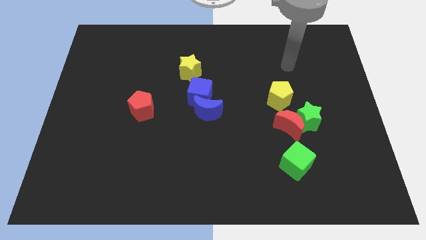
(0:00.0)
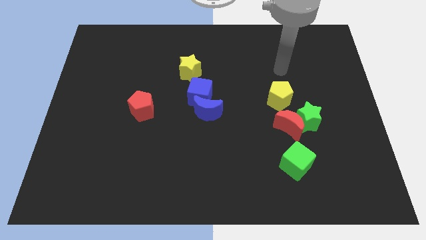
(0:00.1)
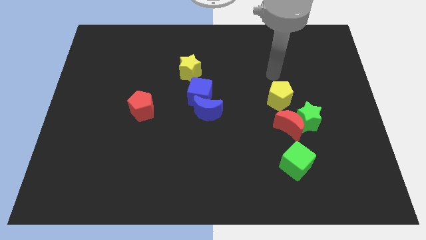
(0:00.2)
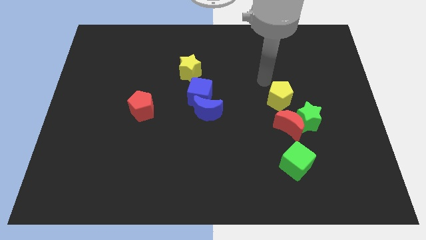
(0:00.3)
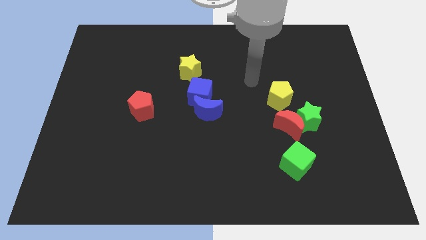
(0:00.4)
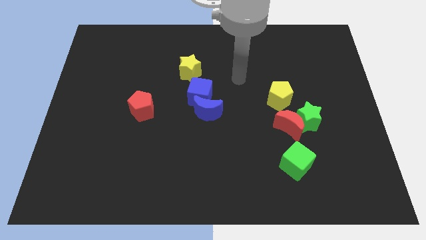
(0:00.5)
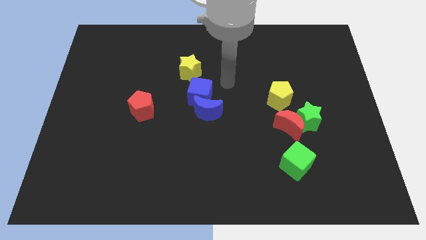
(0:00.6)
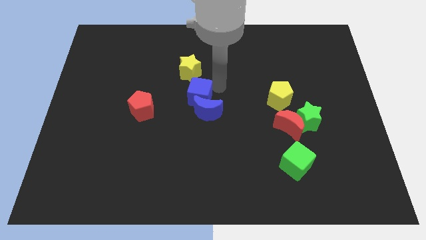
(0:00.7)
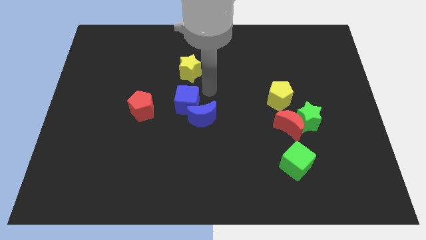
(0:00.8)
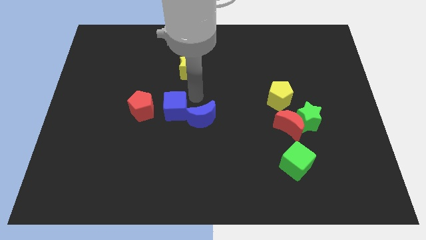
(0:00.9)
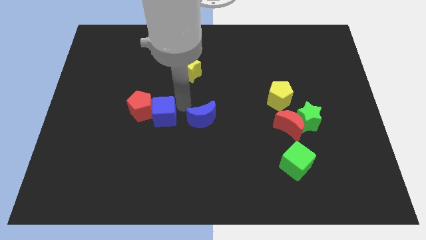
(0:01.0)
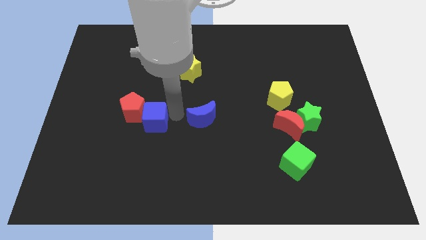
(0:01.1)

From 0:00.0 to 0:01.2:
move the blue moon away from the blue cube

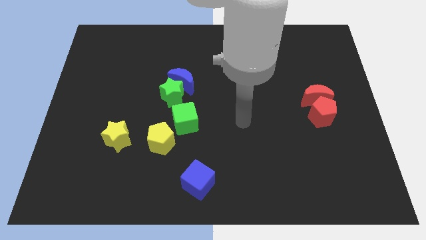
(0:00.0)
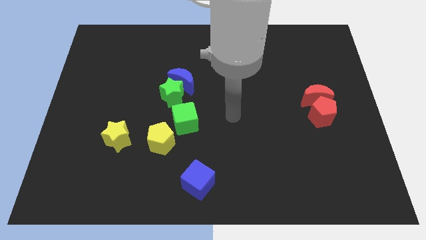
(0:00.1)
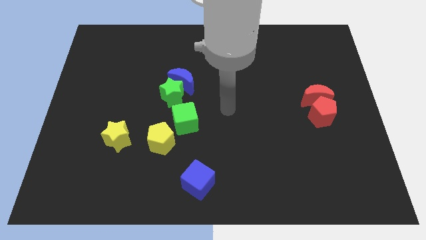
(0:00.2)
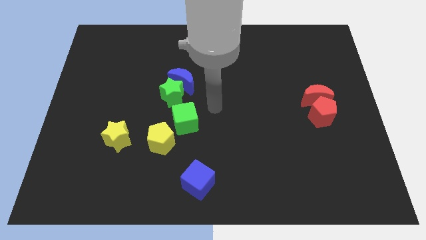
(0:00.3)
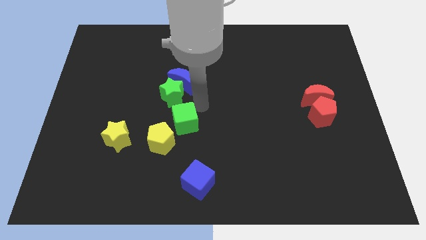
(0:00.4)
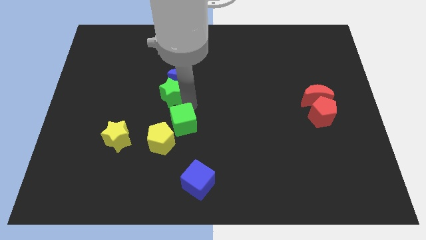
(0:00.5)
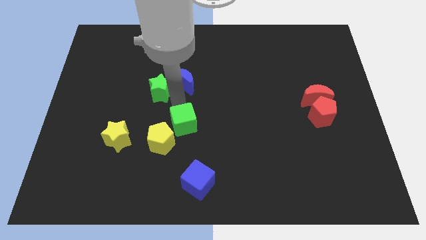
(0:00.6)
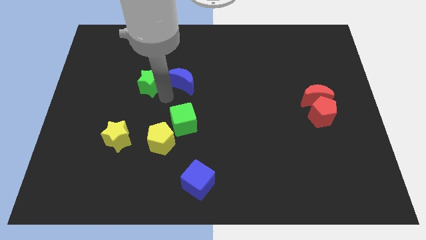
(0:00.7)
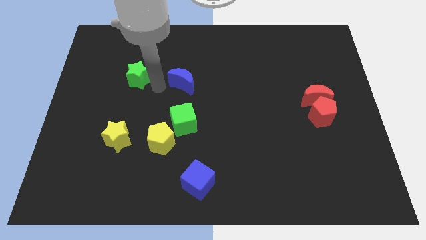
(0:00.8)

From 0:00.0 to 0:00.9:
pull the blue moon apart from the green star

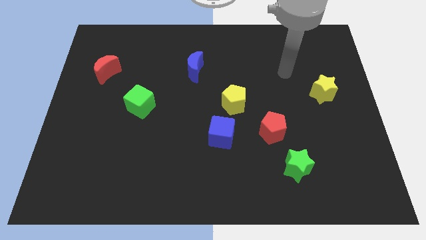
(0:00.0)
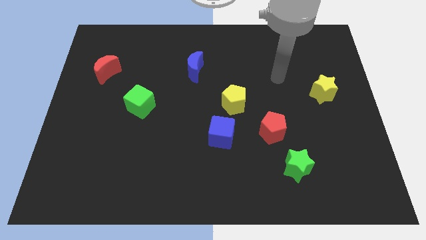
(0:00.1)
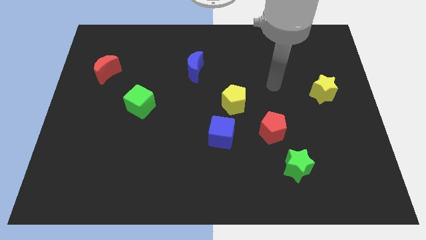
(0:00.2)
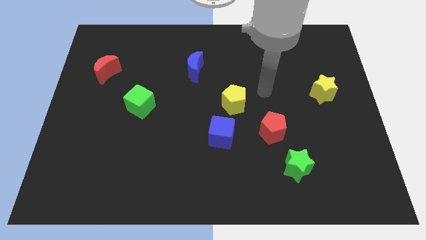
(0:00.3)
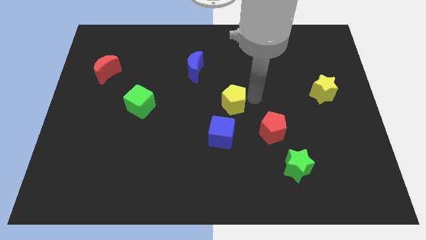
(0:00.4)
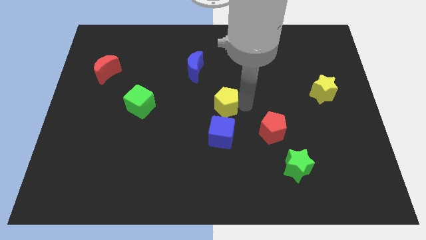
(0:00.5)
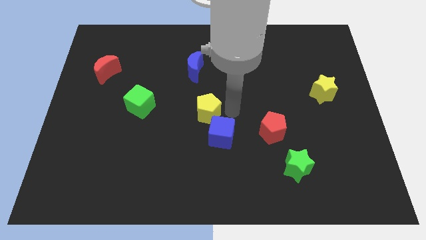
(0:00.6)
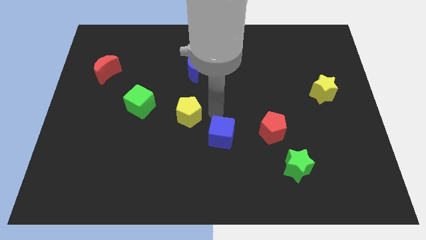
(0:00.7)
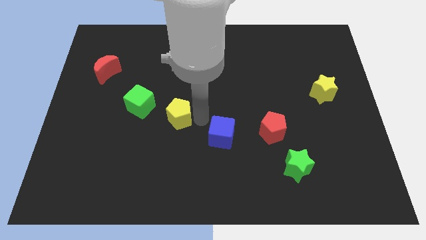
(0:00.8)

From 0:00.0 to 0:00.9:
move the blue cube away from the yellow pentagon

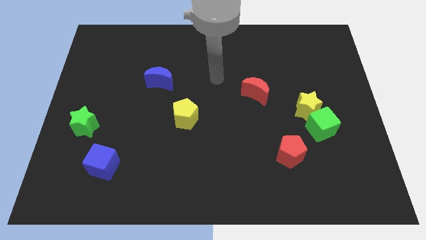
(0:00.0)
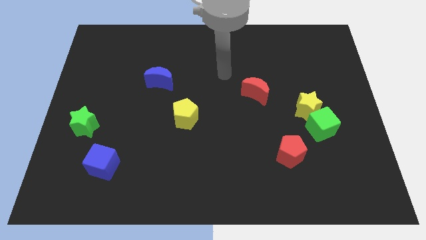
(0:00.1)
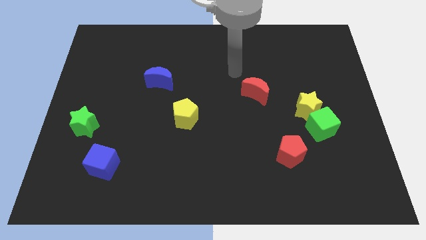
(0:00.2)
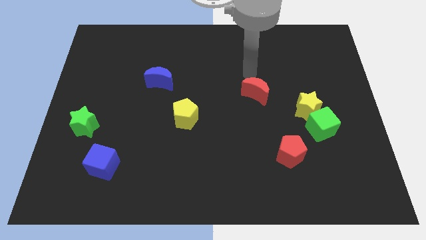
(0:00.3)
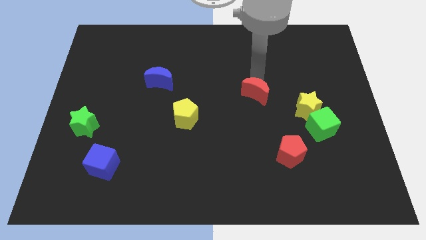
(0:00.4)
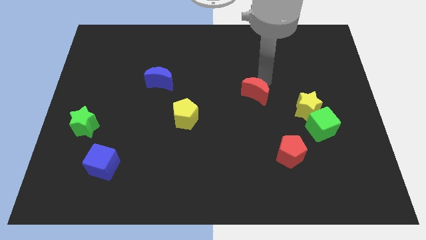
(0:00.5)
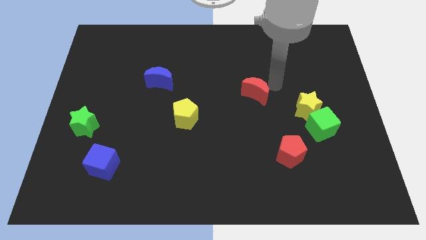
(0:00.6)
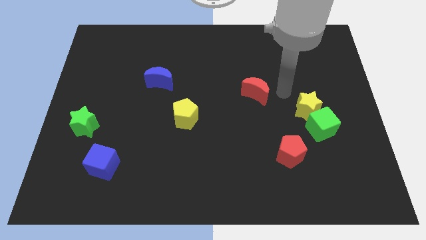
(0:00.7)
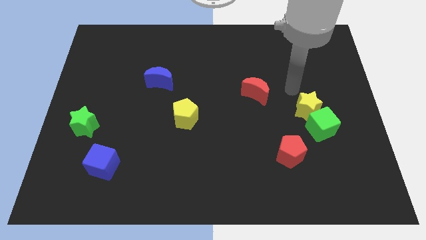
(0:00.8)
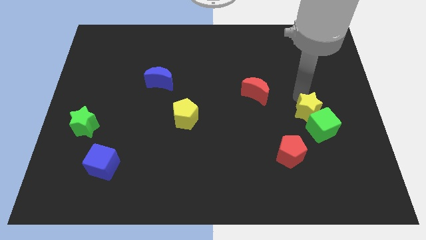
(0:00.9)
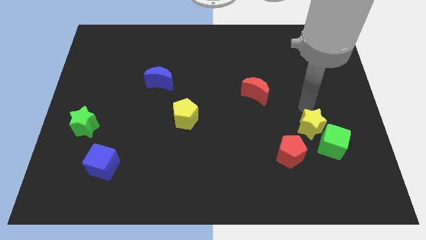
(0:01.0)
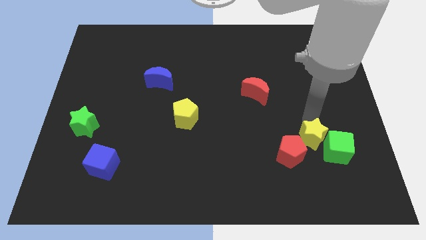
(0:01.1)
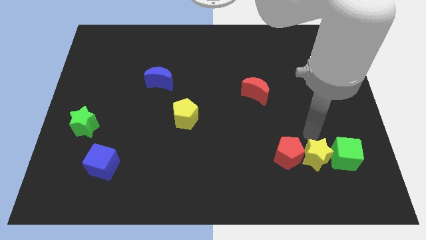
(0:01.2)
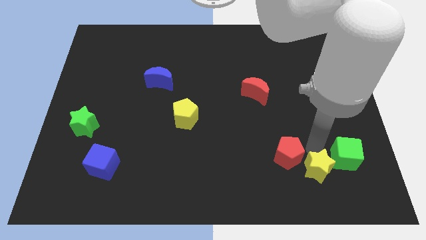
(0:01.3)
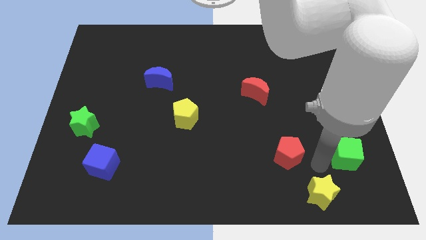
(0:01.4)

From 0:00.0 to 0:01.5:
separate the green cube from the yellow star

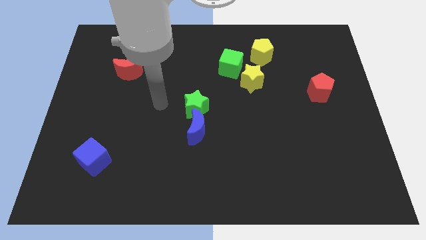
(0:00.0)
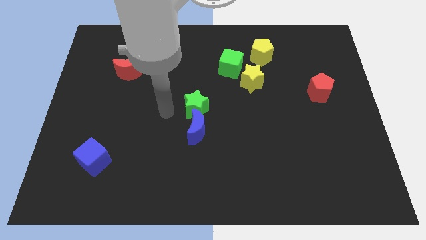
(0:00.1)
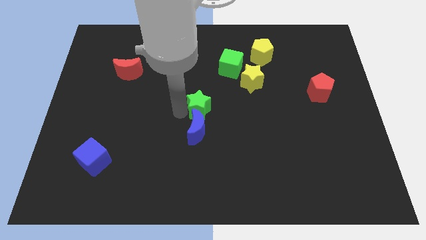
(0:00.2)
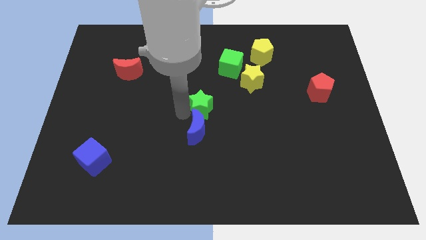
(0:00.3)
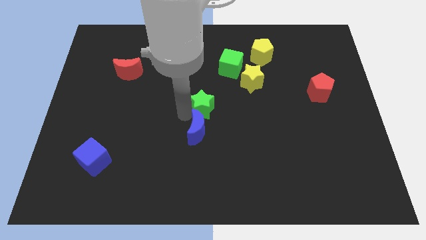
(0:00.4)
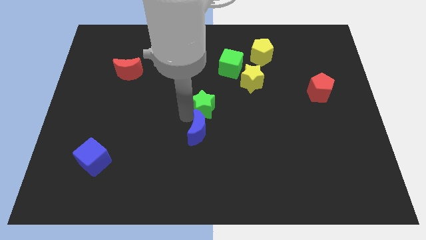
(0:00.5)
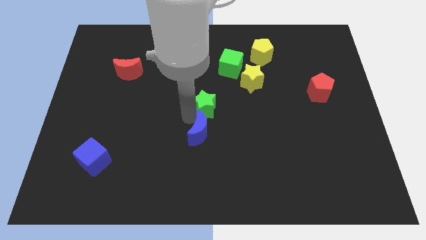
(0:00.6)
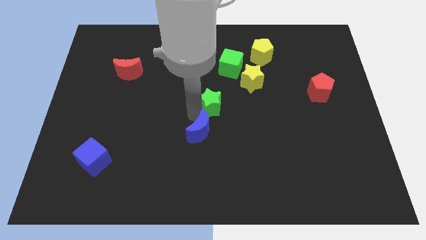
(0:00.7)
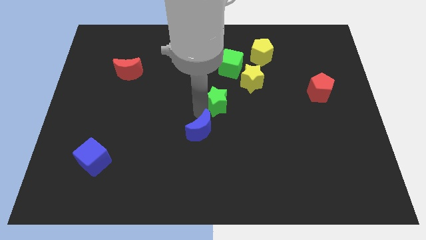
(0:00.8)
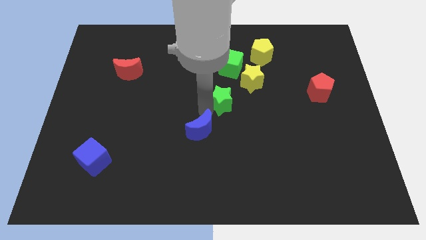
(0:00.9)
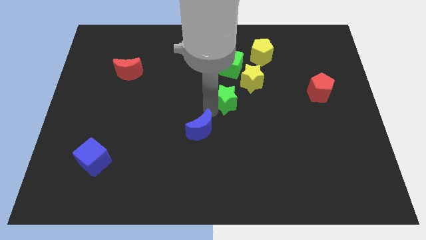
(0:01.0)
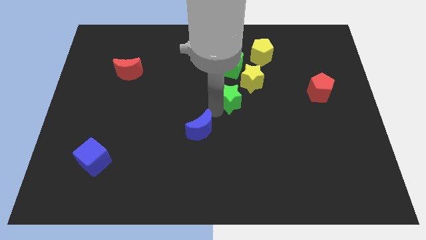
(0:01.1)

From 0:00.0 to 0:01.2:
separate the blue moon from the green star

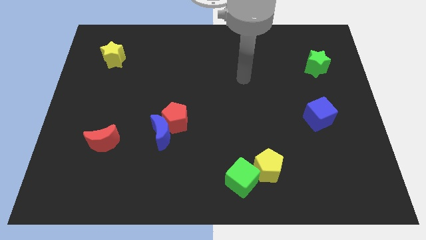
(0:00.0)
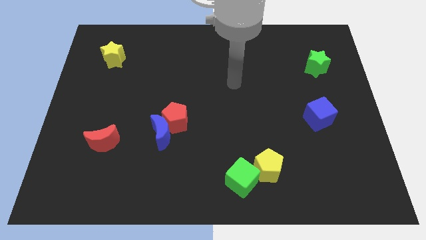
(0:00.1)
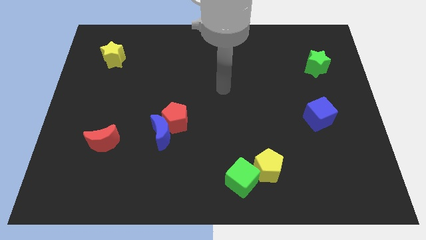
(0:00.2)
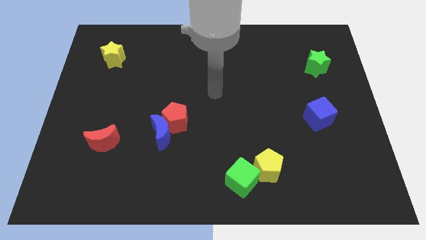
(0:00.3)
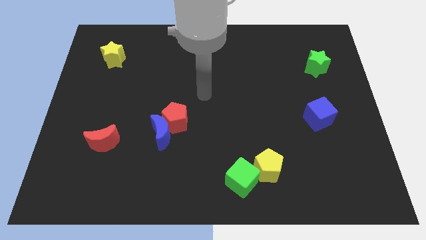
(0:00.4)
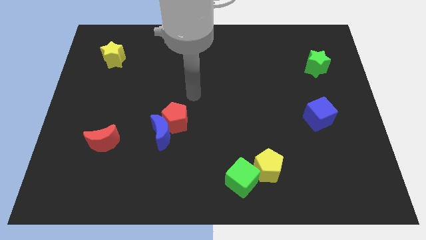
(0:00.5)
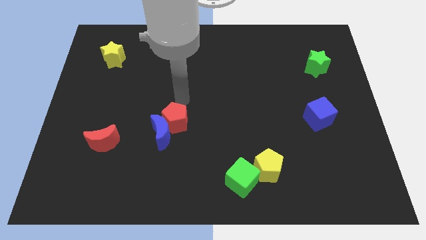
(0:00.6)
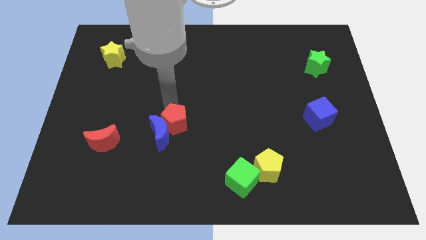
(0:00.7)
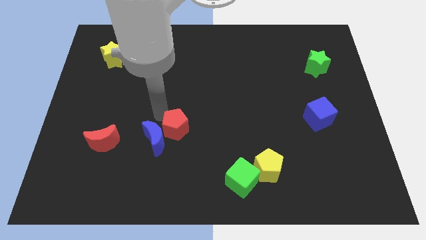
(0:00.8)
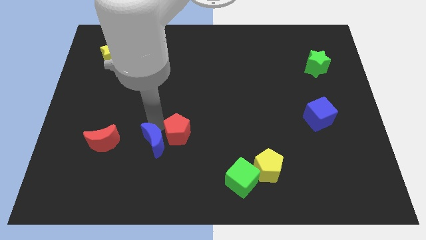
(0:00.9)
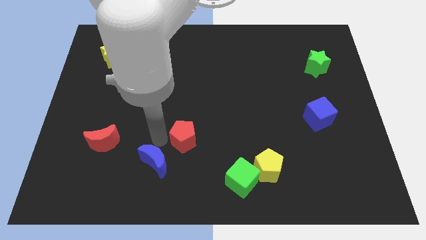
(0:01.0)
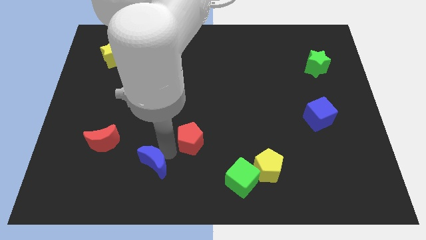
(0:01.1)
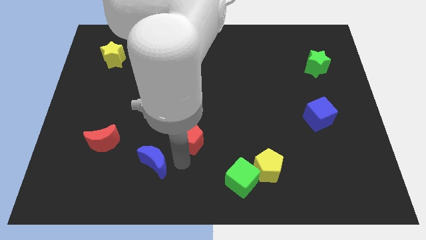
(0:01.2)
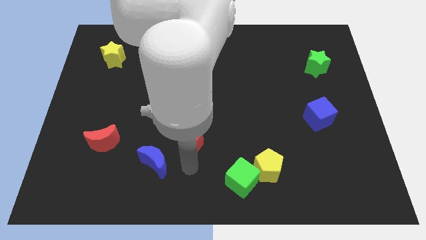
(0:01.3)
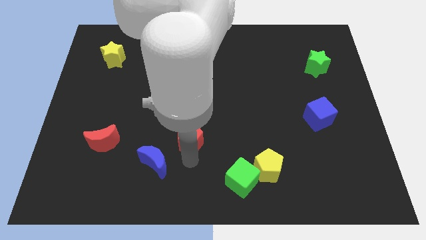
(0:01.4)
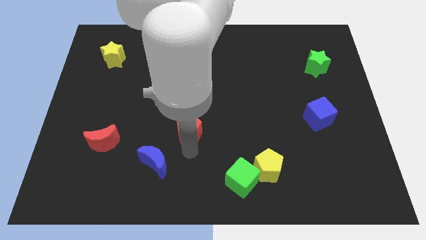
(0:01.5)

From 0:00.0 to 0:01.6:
move the red pentagon away from the blue moon

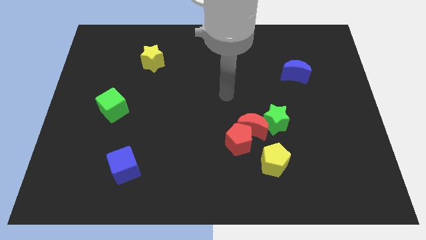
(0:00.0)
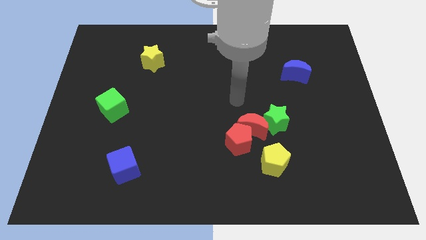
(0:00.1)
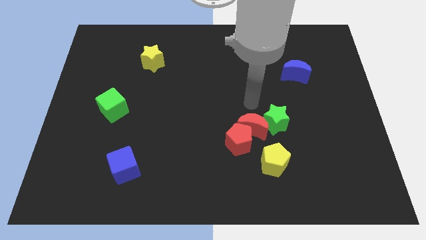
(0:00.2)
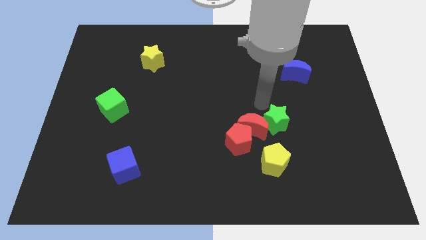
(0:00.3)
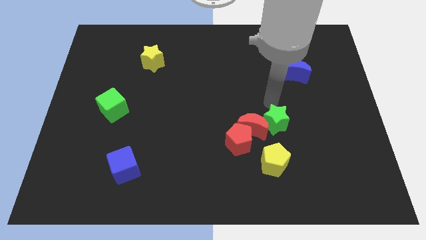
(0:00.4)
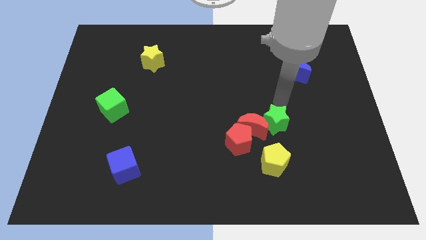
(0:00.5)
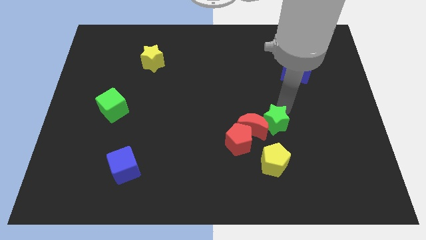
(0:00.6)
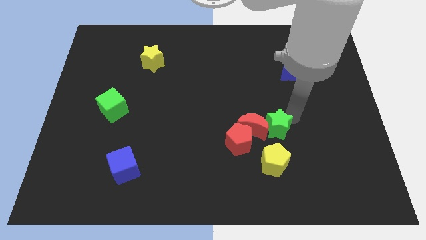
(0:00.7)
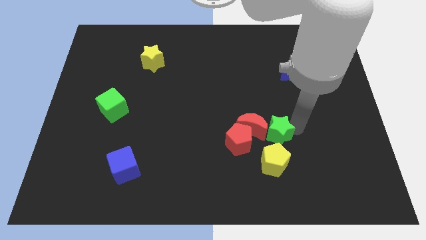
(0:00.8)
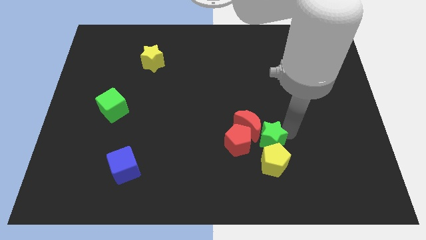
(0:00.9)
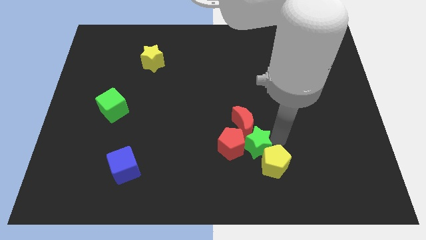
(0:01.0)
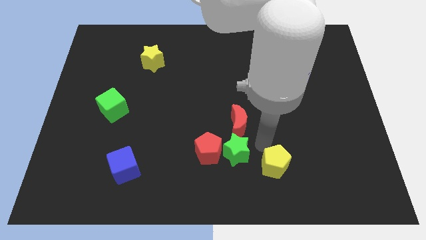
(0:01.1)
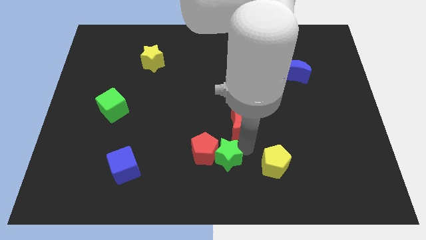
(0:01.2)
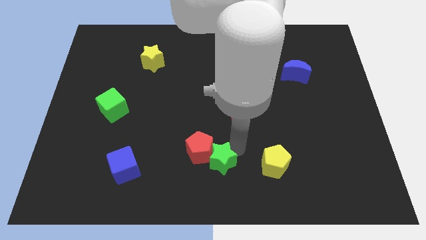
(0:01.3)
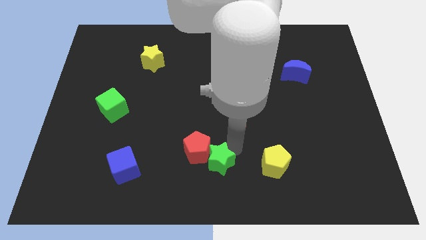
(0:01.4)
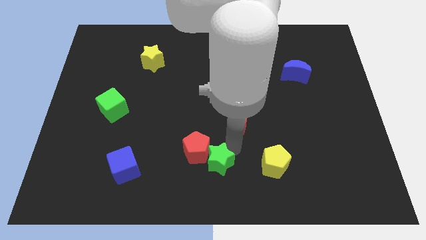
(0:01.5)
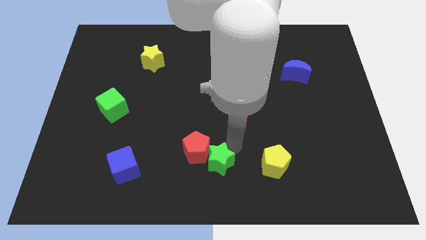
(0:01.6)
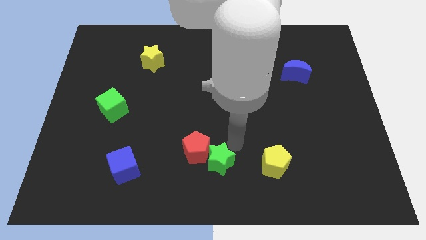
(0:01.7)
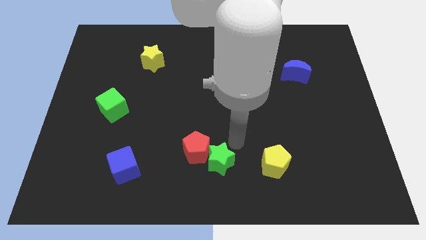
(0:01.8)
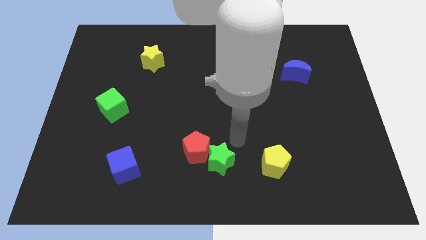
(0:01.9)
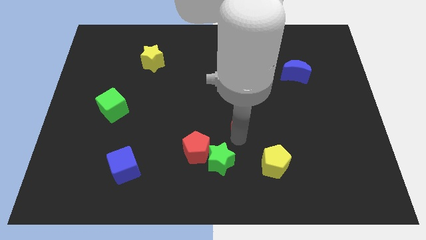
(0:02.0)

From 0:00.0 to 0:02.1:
pull the red moon apart from the group
